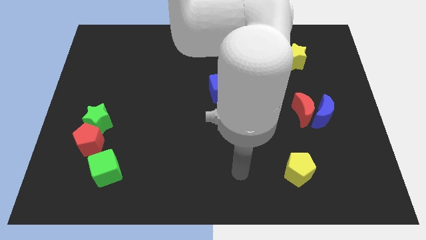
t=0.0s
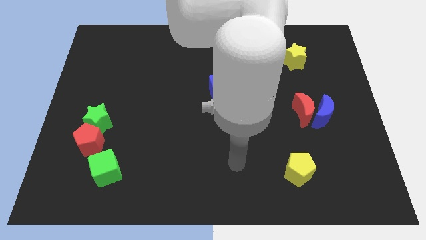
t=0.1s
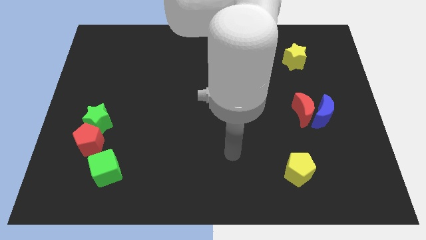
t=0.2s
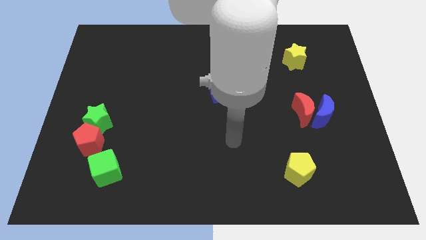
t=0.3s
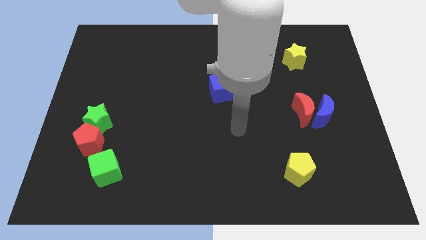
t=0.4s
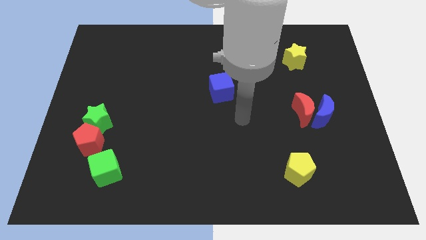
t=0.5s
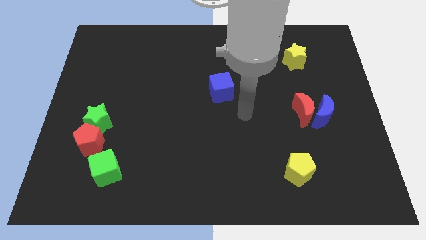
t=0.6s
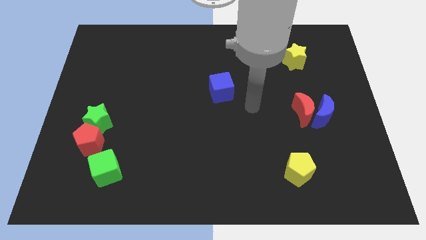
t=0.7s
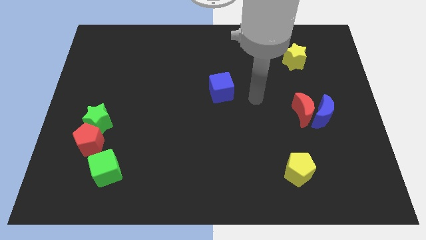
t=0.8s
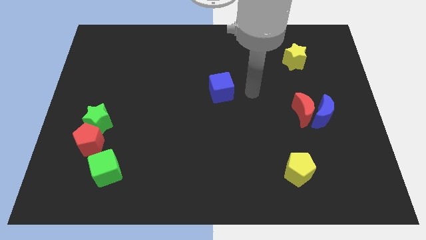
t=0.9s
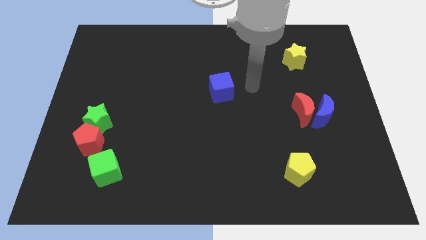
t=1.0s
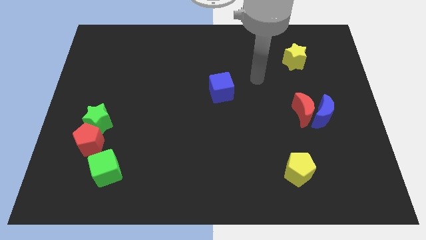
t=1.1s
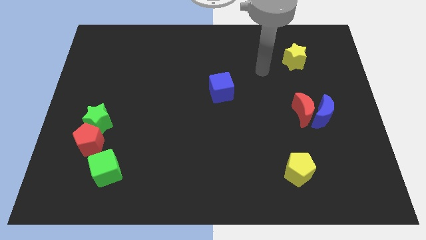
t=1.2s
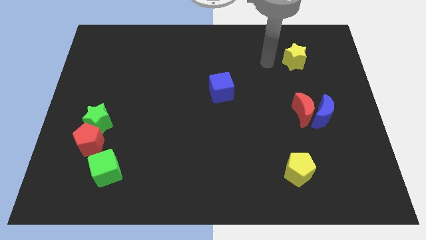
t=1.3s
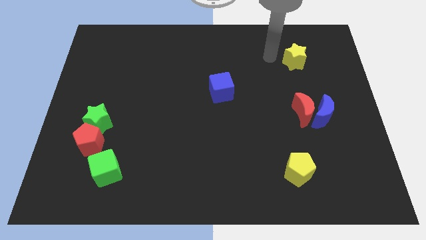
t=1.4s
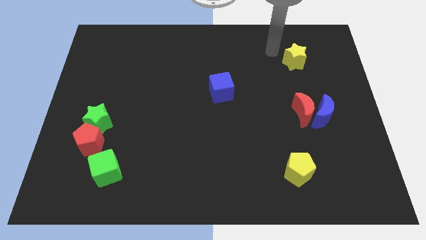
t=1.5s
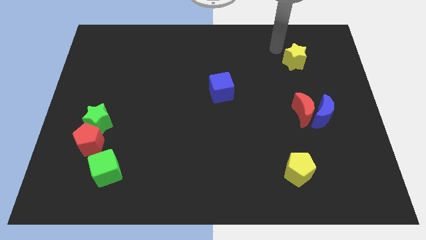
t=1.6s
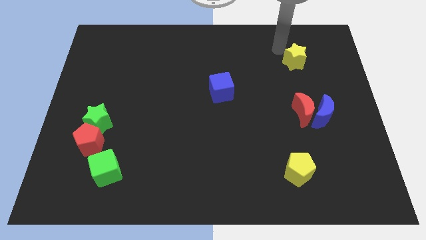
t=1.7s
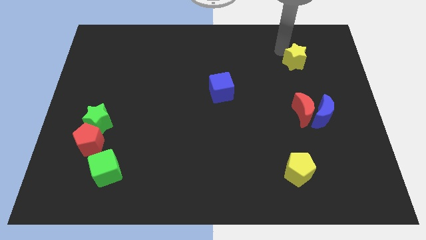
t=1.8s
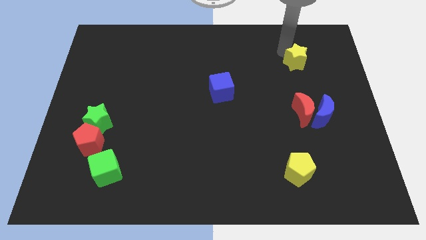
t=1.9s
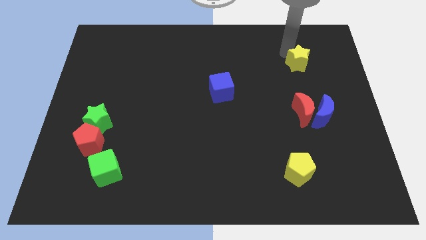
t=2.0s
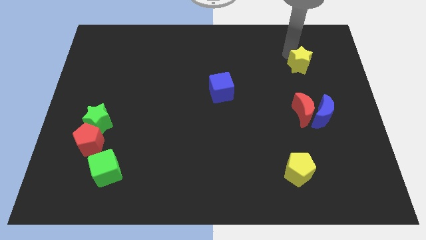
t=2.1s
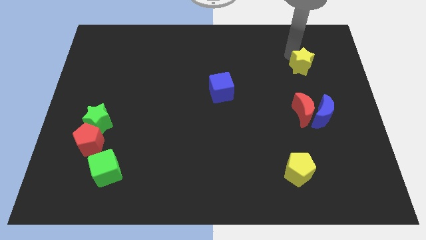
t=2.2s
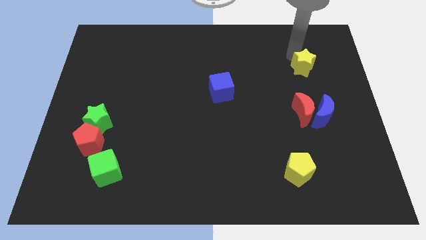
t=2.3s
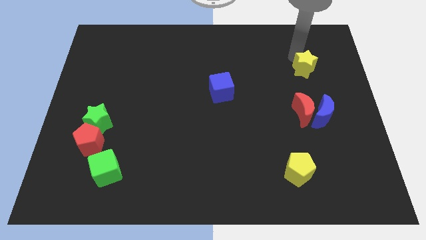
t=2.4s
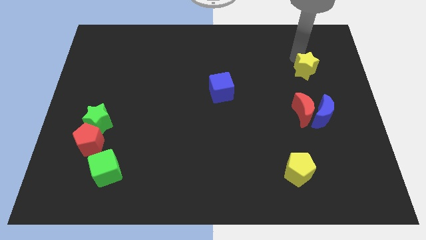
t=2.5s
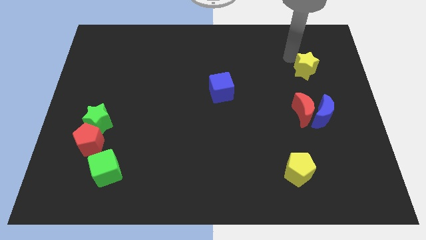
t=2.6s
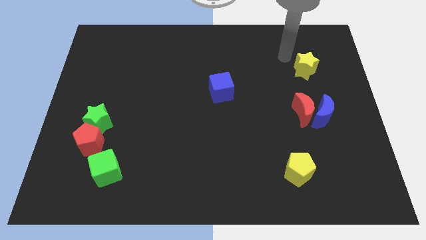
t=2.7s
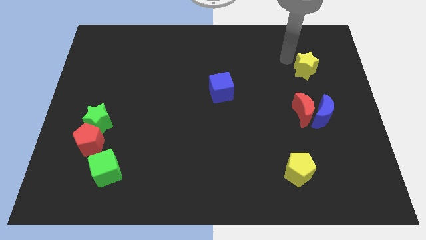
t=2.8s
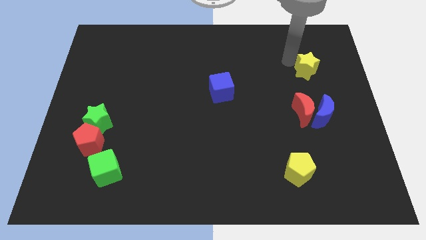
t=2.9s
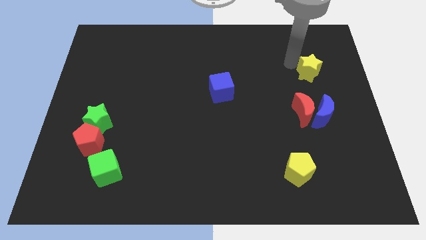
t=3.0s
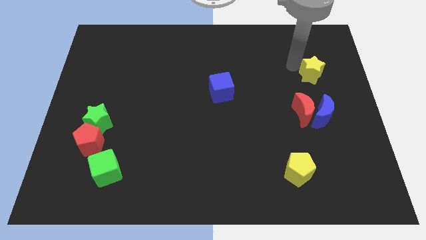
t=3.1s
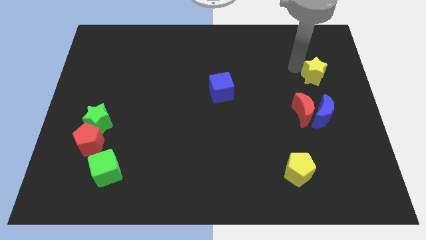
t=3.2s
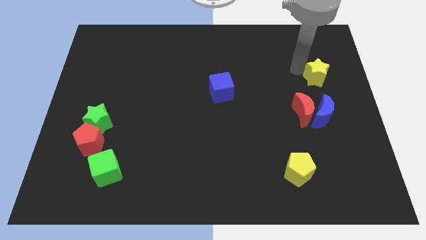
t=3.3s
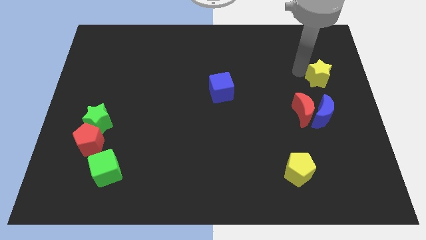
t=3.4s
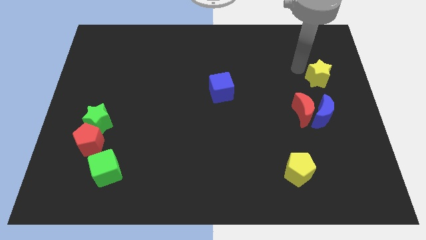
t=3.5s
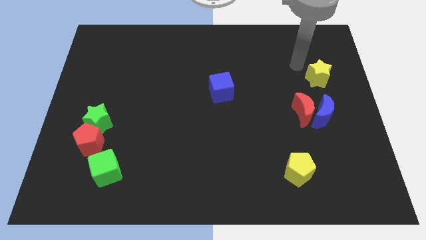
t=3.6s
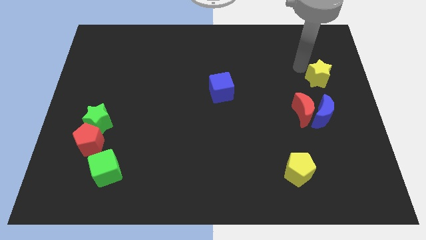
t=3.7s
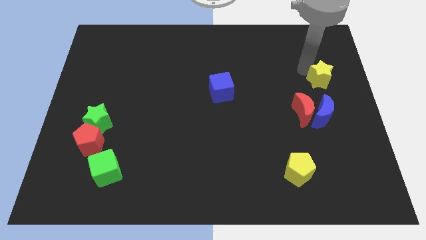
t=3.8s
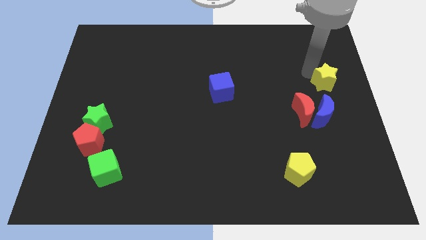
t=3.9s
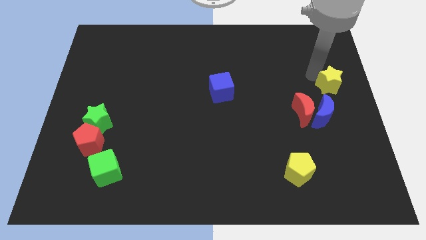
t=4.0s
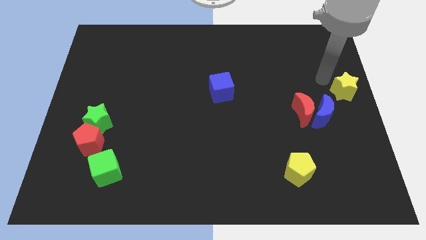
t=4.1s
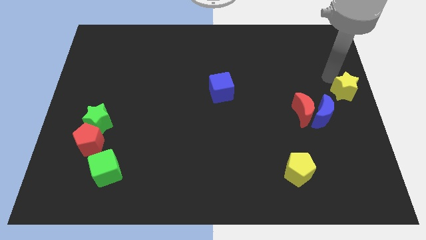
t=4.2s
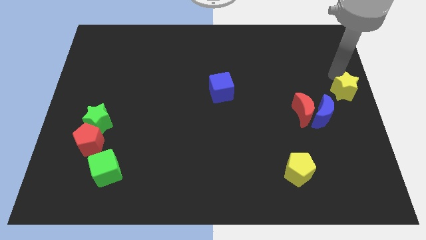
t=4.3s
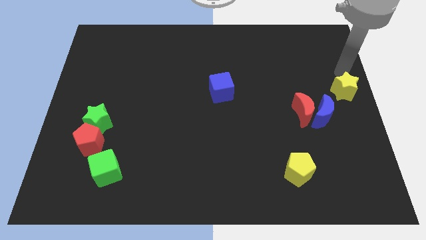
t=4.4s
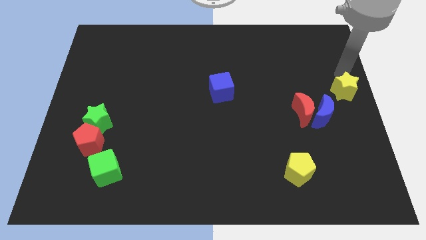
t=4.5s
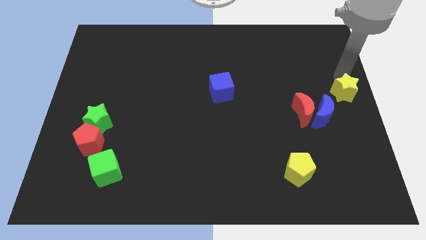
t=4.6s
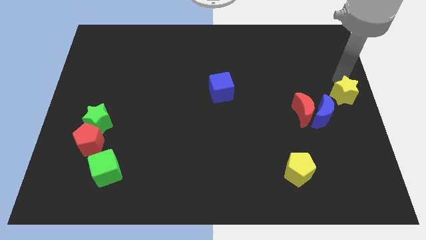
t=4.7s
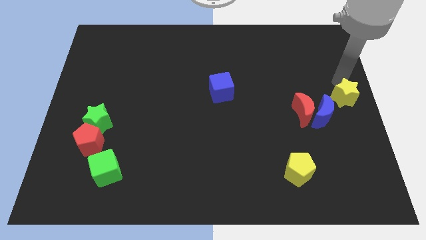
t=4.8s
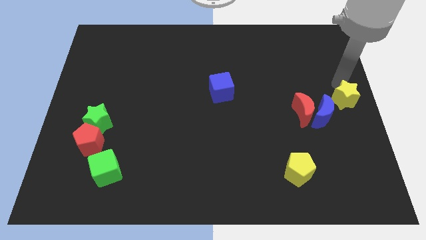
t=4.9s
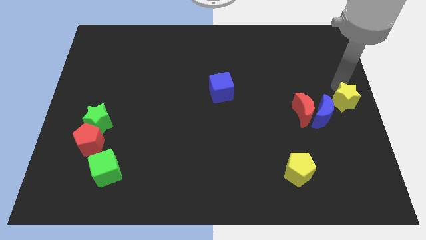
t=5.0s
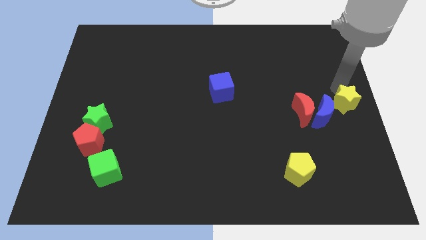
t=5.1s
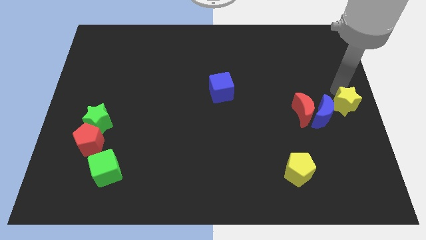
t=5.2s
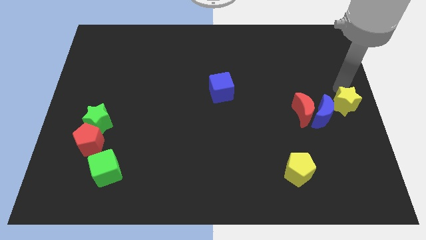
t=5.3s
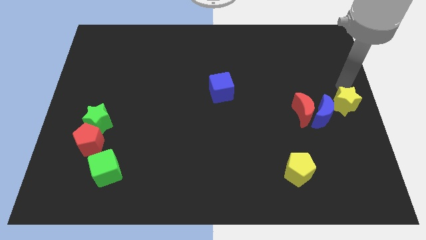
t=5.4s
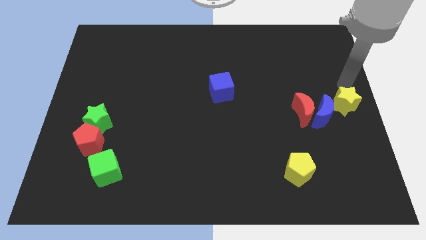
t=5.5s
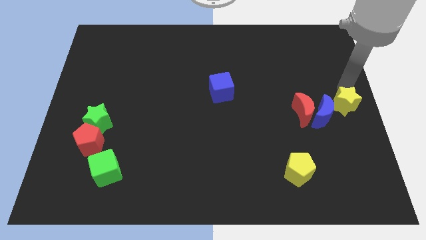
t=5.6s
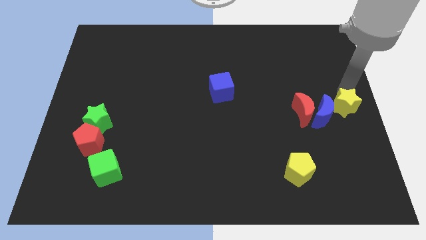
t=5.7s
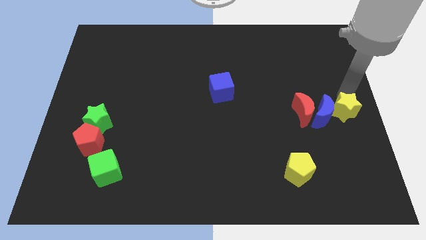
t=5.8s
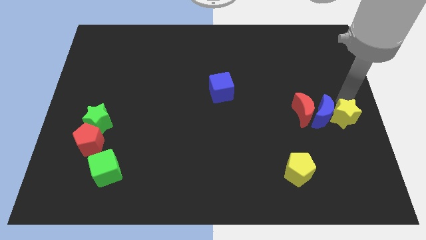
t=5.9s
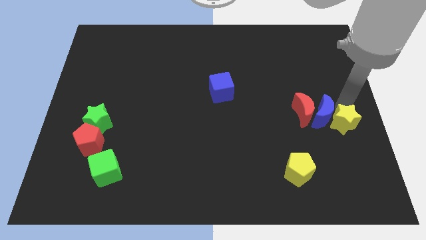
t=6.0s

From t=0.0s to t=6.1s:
push the yellow star to the bottom right of the red moon
